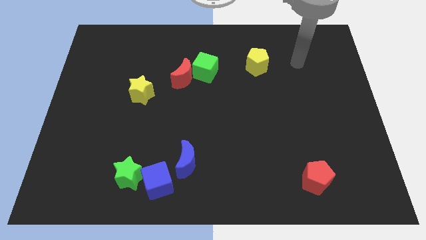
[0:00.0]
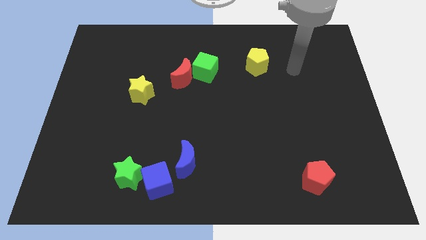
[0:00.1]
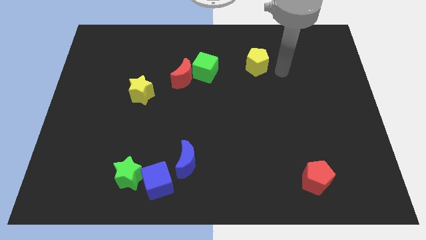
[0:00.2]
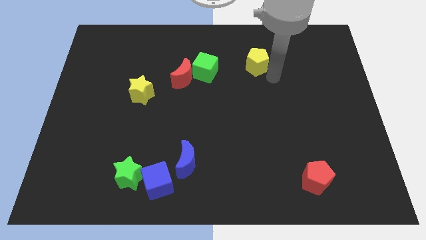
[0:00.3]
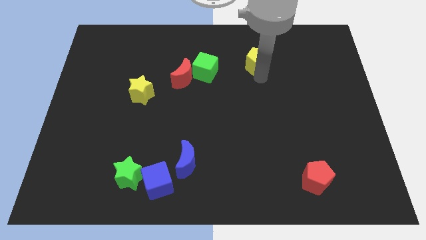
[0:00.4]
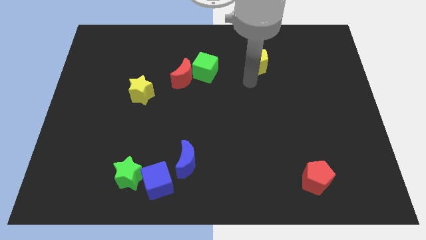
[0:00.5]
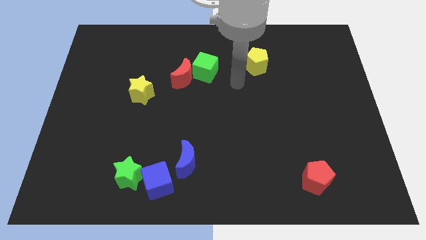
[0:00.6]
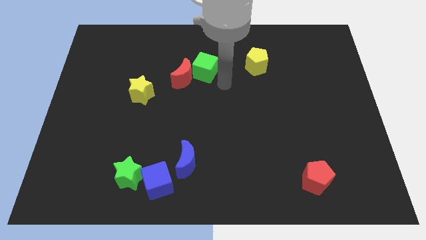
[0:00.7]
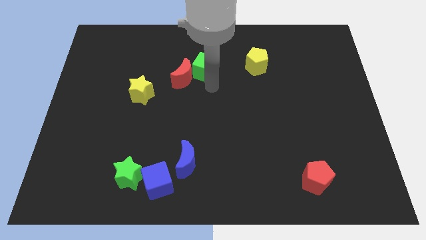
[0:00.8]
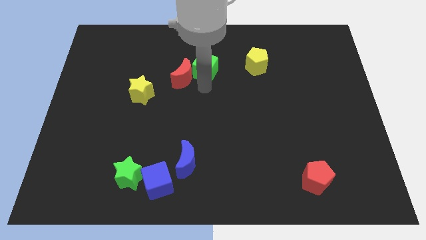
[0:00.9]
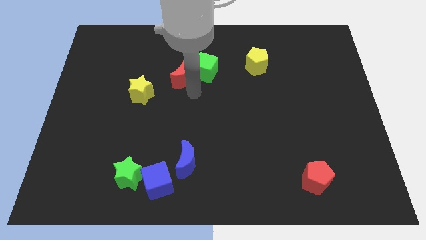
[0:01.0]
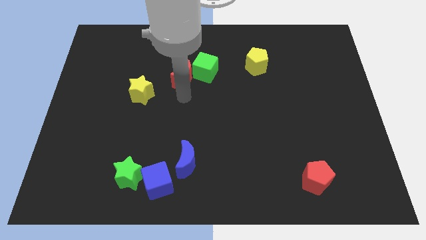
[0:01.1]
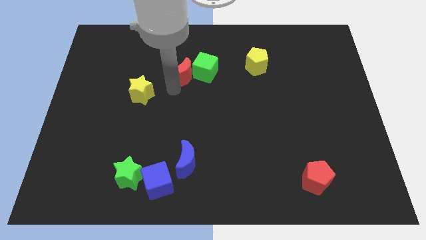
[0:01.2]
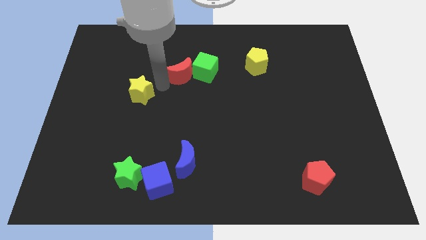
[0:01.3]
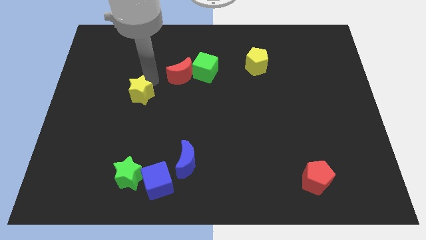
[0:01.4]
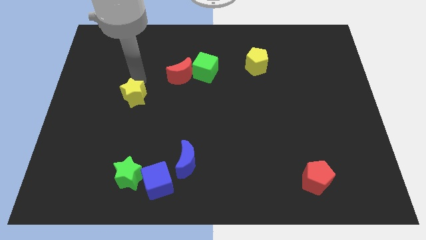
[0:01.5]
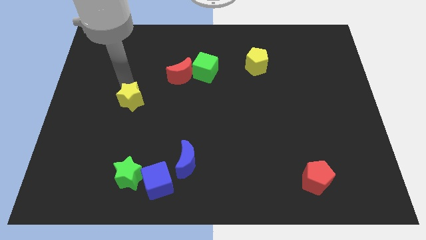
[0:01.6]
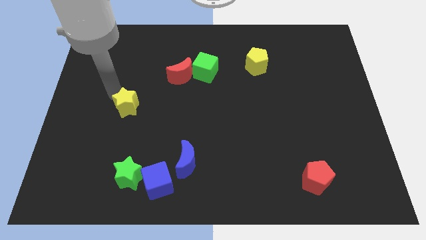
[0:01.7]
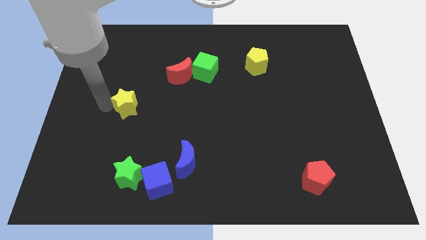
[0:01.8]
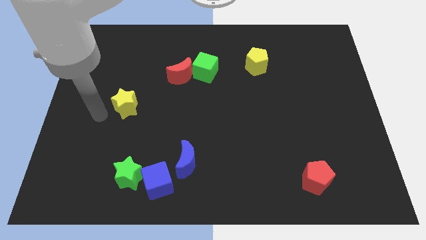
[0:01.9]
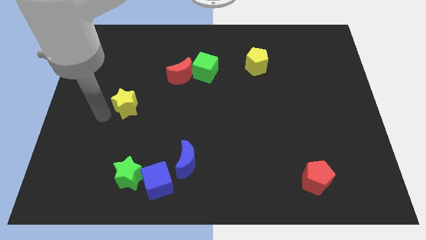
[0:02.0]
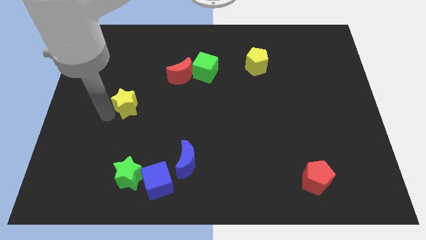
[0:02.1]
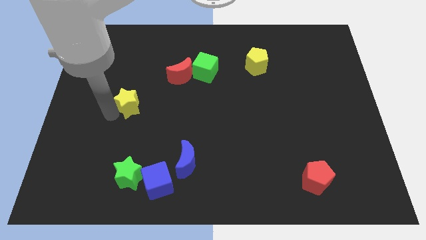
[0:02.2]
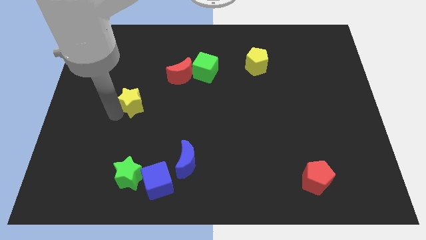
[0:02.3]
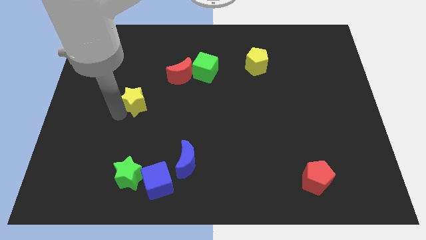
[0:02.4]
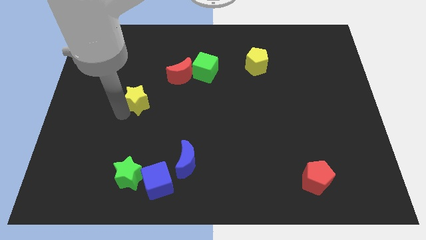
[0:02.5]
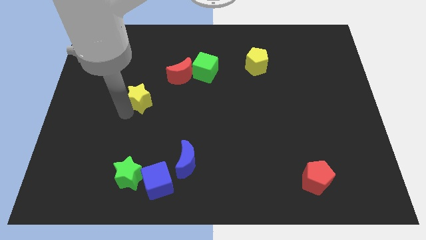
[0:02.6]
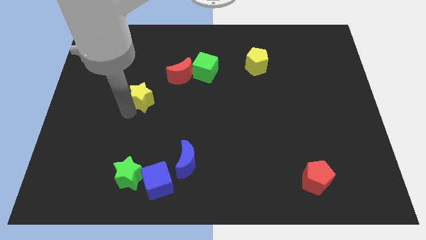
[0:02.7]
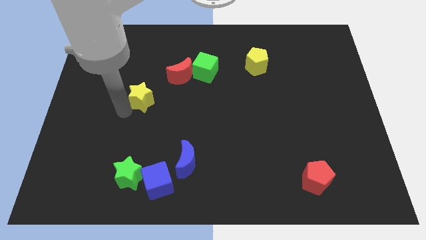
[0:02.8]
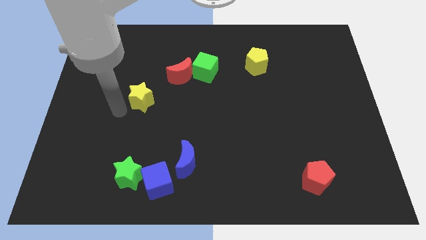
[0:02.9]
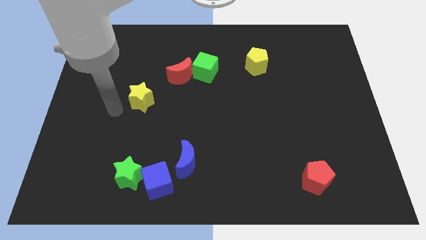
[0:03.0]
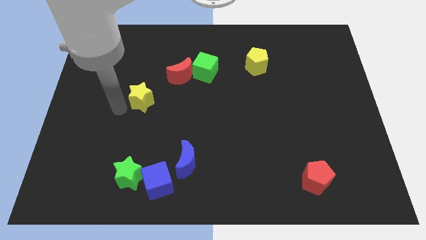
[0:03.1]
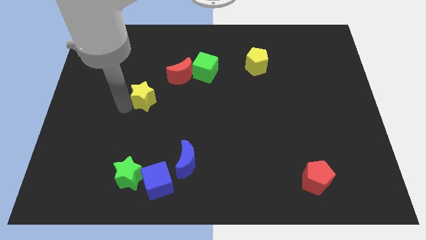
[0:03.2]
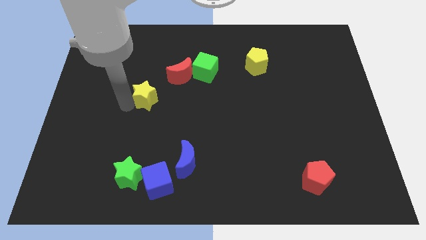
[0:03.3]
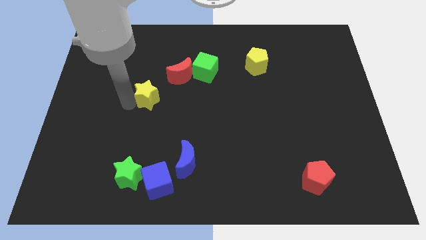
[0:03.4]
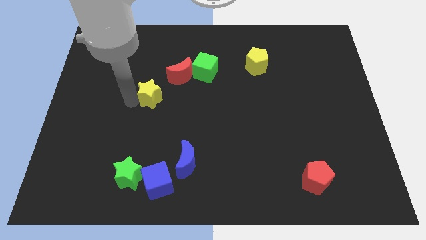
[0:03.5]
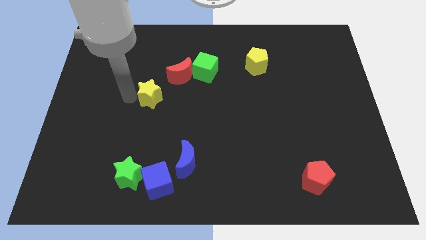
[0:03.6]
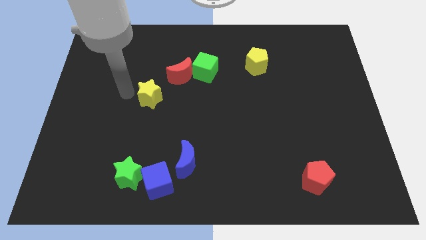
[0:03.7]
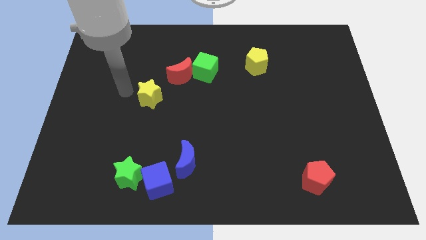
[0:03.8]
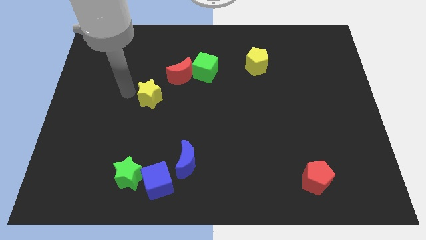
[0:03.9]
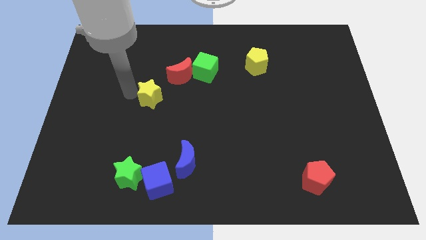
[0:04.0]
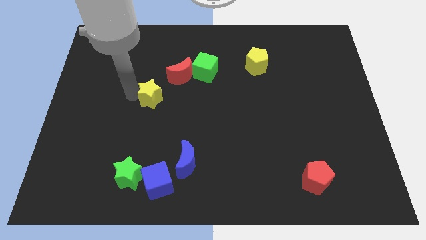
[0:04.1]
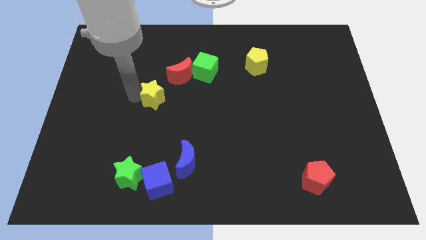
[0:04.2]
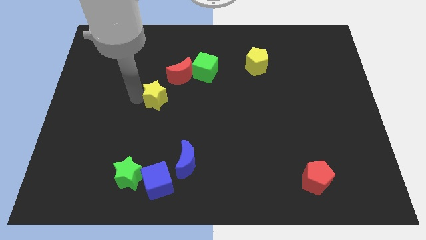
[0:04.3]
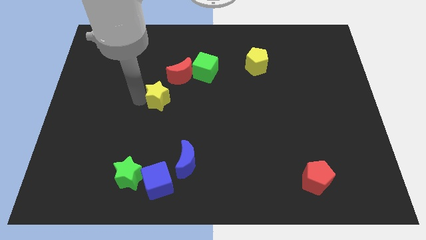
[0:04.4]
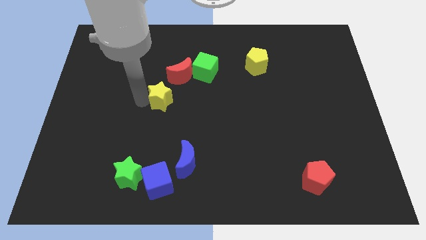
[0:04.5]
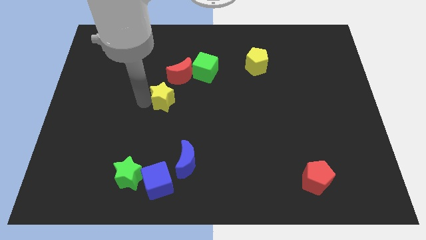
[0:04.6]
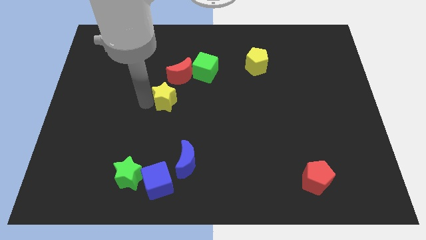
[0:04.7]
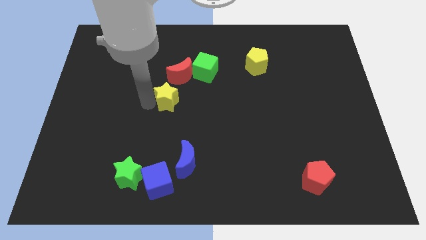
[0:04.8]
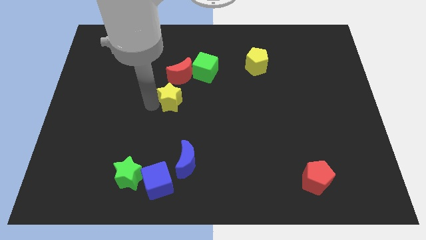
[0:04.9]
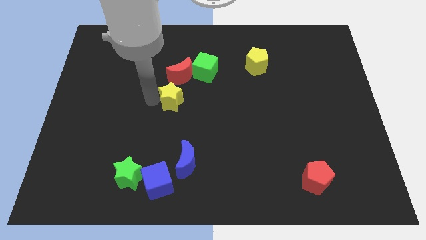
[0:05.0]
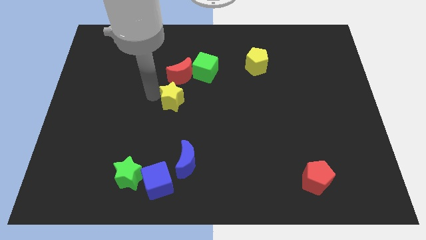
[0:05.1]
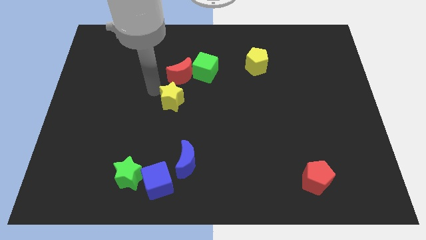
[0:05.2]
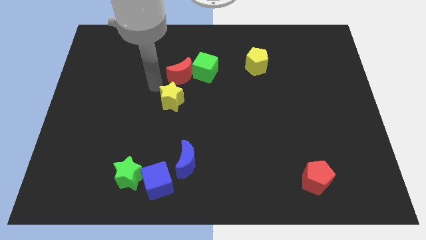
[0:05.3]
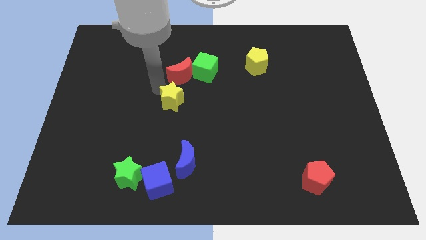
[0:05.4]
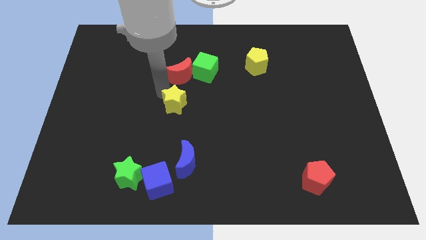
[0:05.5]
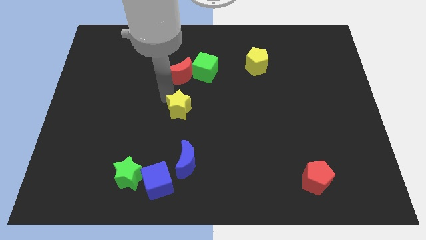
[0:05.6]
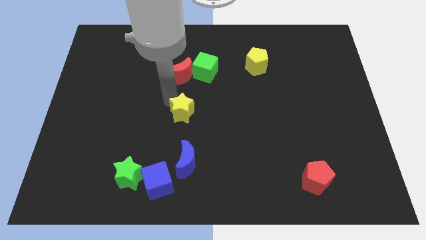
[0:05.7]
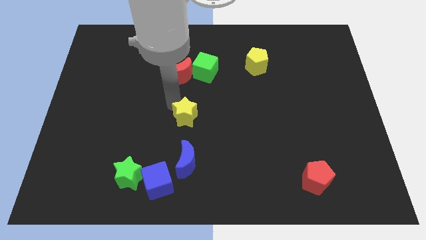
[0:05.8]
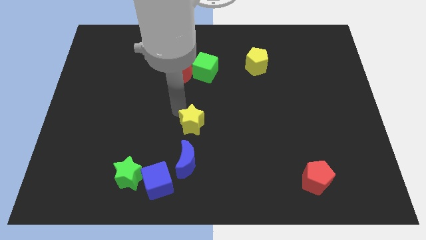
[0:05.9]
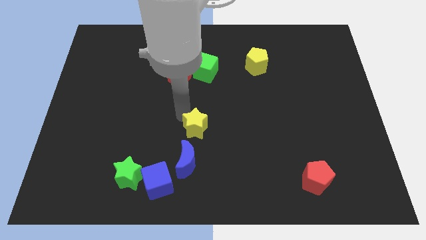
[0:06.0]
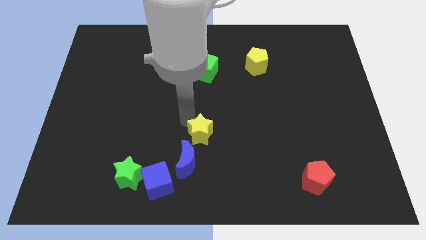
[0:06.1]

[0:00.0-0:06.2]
push the yellow star to the top right of the blue moon

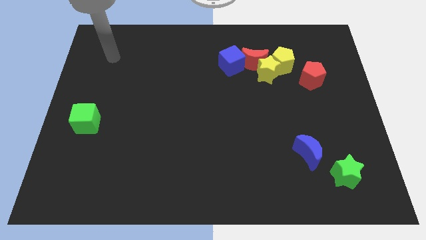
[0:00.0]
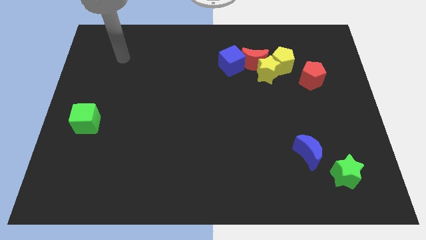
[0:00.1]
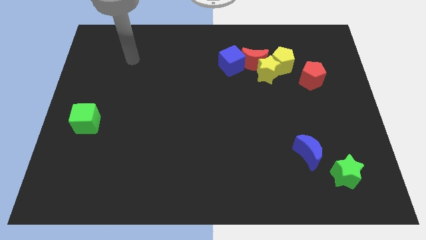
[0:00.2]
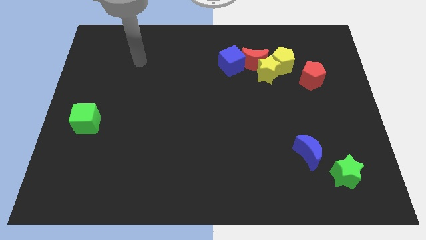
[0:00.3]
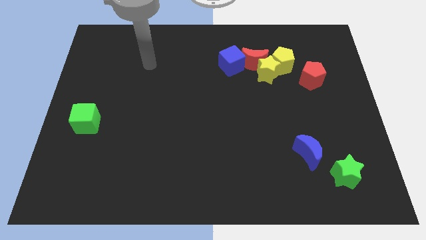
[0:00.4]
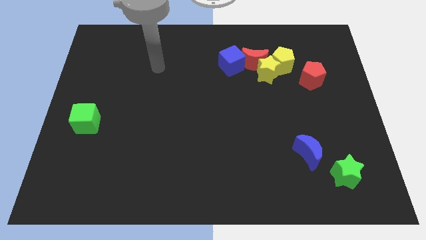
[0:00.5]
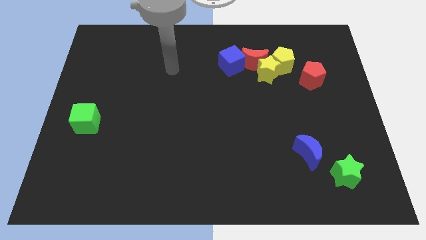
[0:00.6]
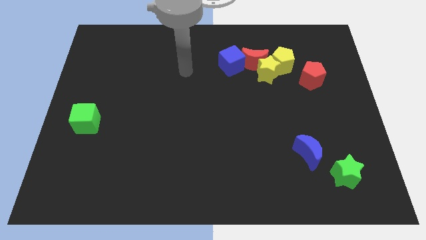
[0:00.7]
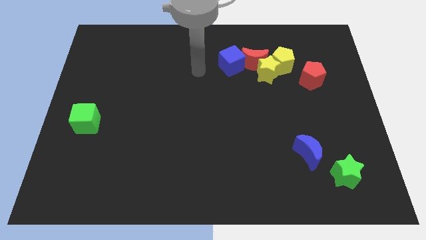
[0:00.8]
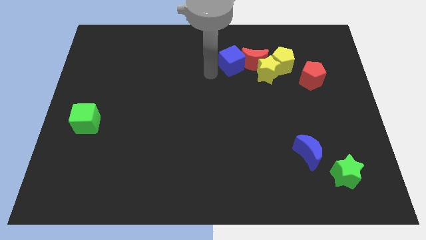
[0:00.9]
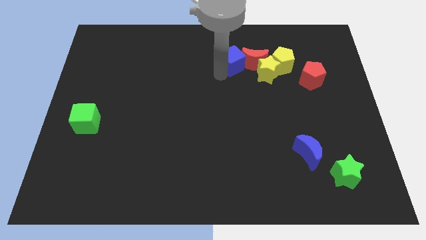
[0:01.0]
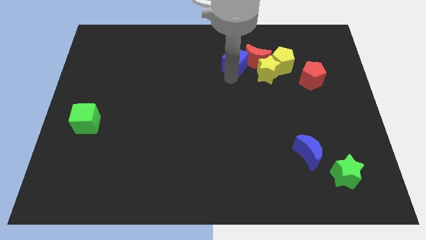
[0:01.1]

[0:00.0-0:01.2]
put the red moon to the top right of the yellow star

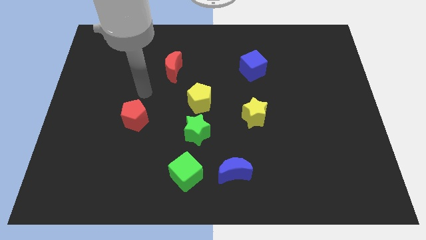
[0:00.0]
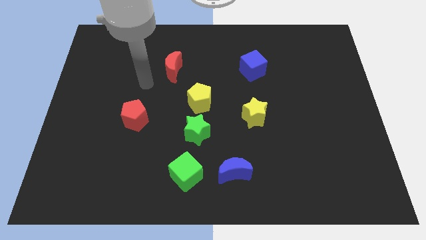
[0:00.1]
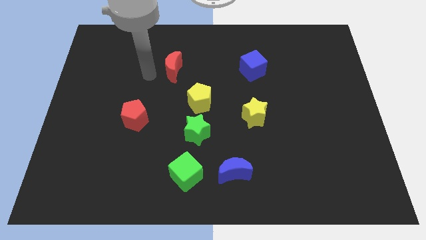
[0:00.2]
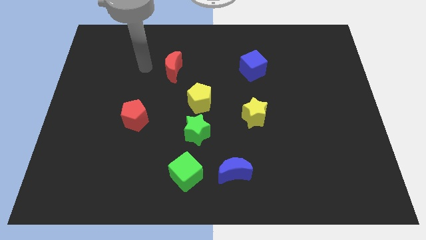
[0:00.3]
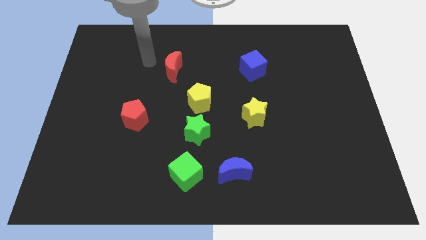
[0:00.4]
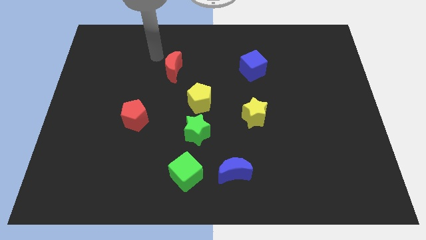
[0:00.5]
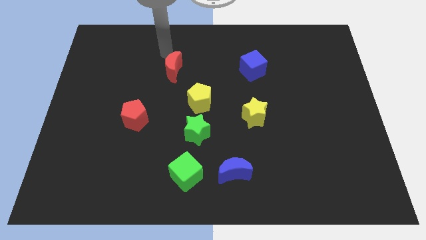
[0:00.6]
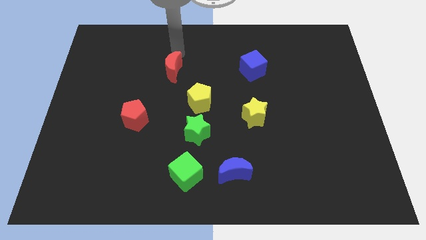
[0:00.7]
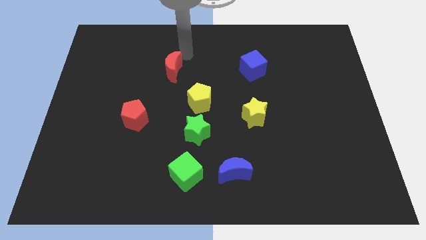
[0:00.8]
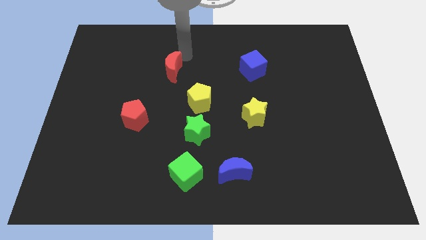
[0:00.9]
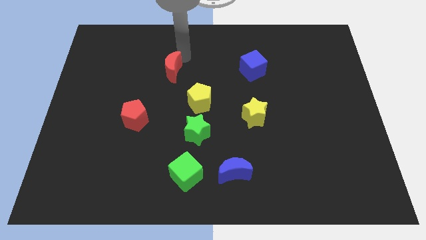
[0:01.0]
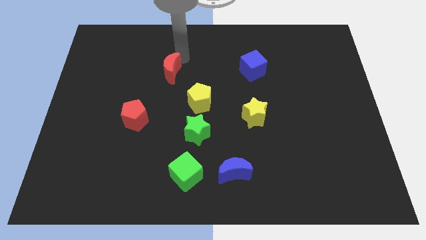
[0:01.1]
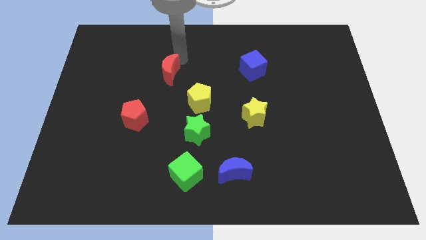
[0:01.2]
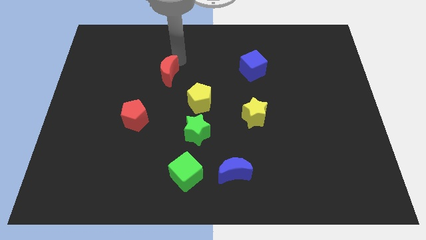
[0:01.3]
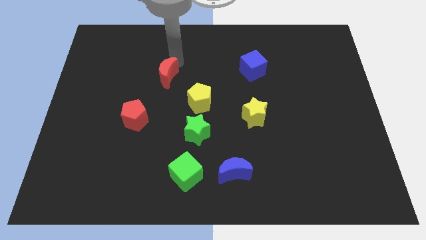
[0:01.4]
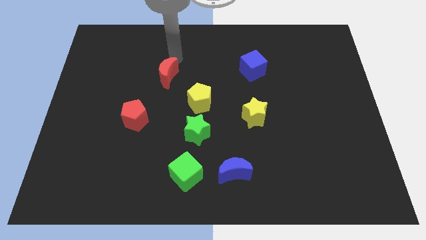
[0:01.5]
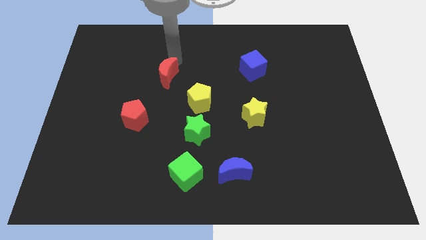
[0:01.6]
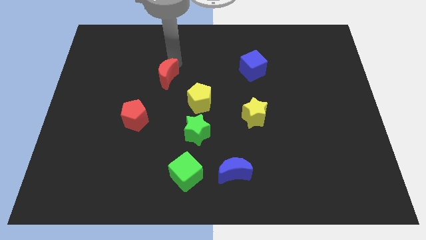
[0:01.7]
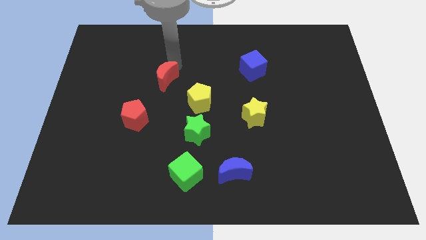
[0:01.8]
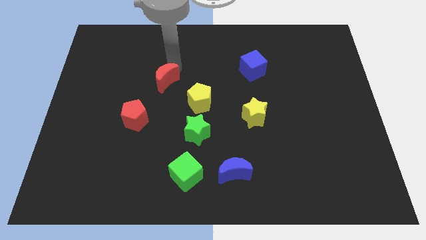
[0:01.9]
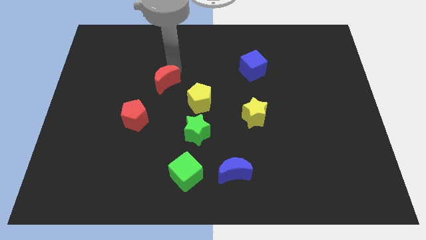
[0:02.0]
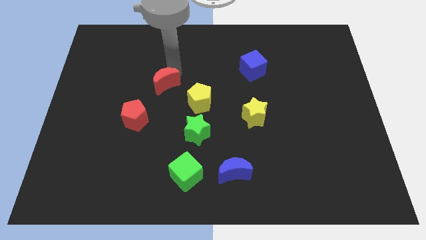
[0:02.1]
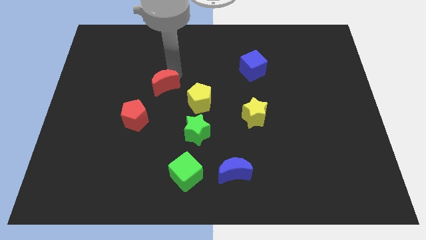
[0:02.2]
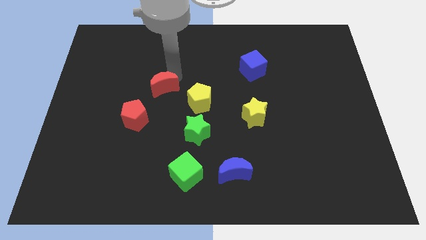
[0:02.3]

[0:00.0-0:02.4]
push the red moon left of the yellow pentagon
